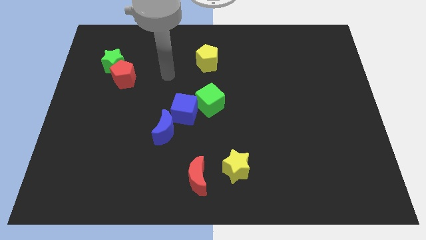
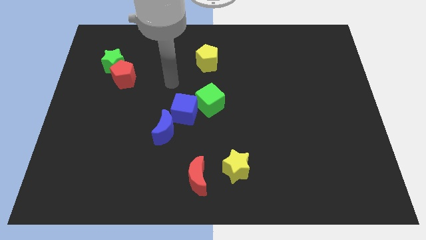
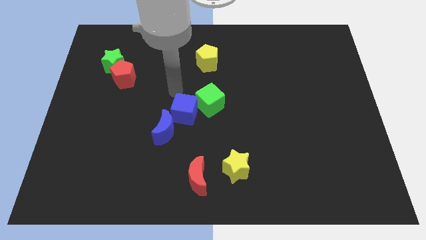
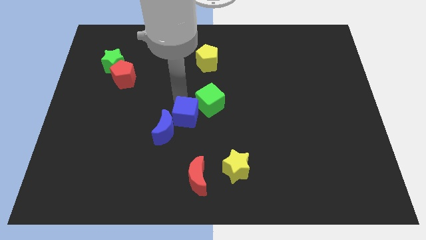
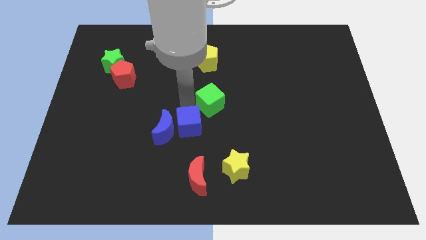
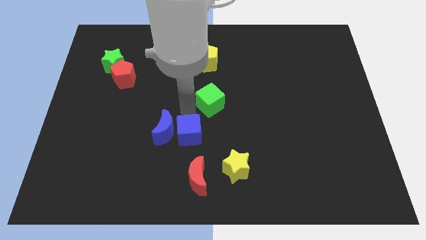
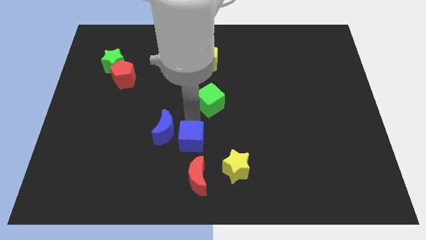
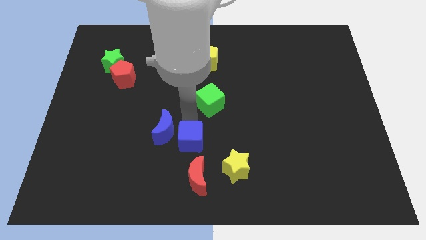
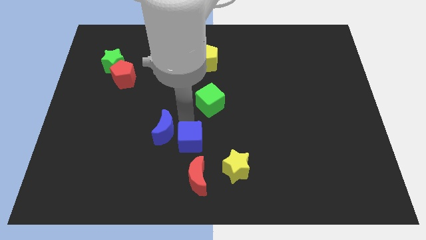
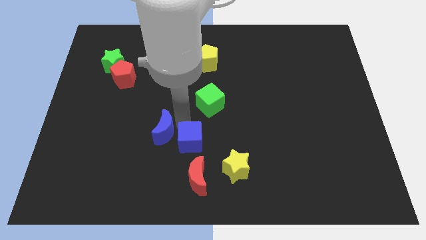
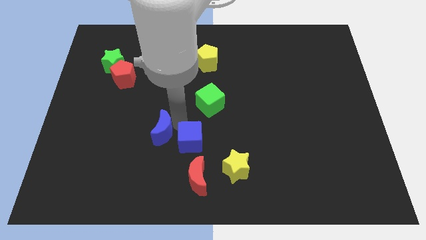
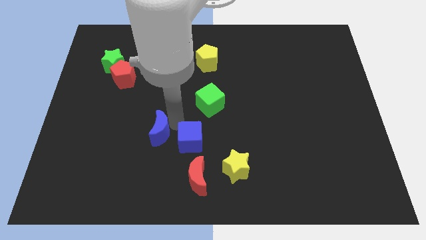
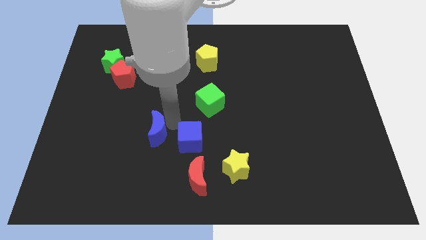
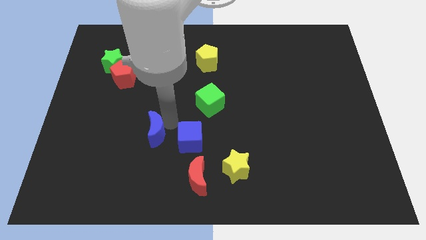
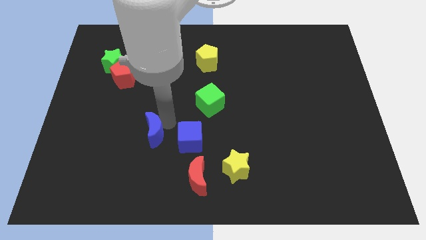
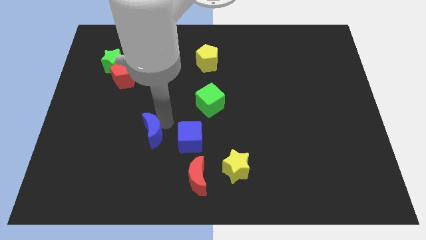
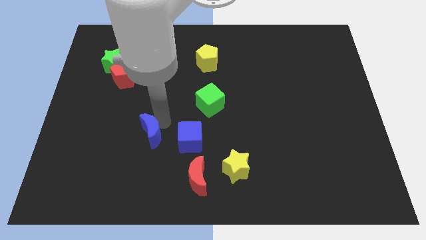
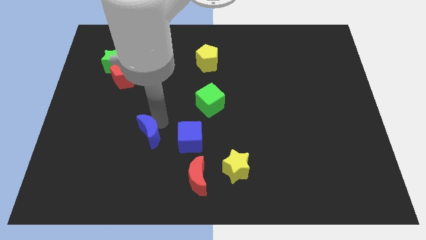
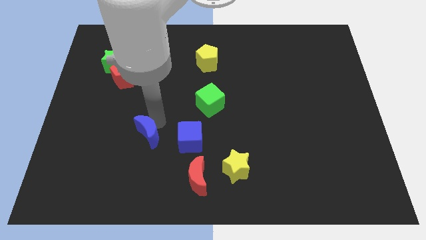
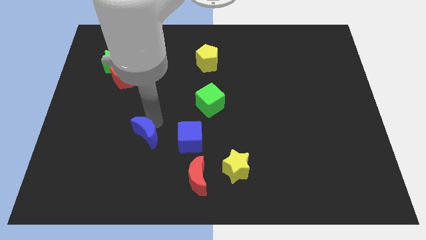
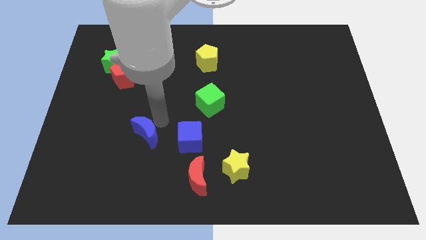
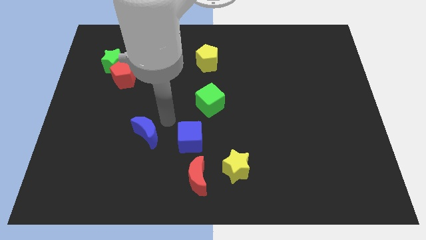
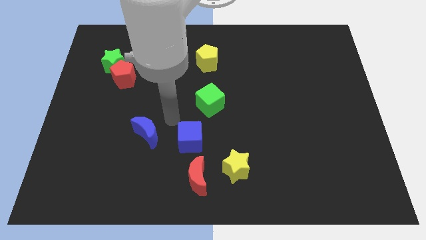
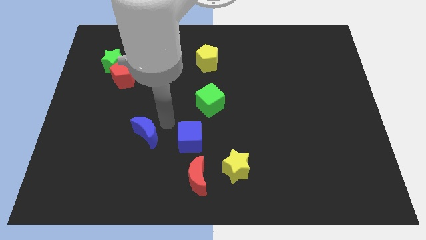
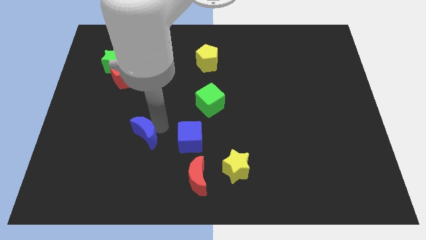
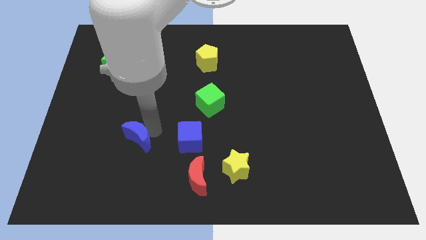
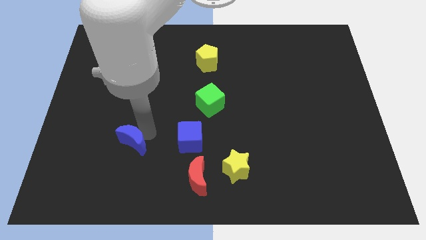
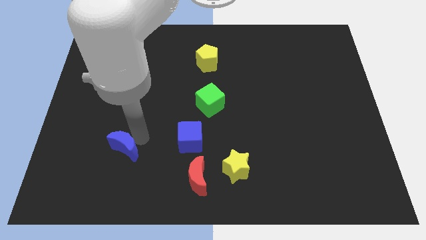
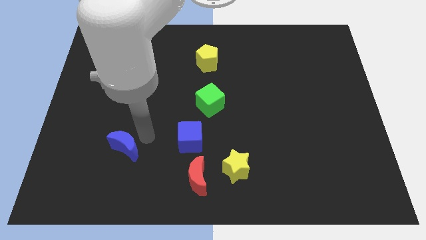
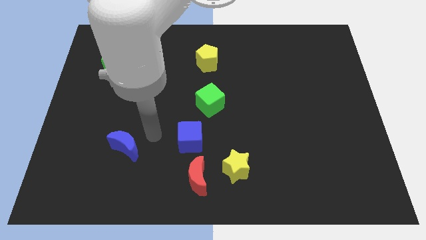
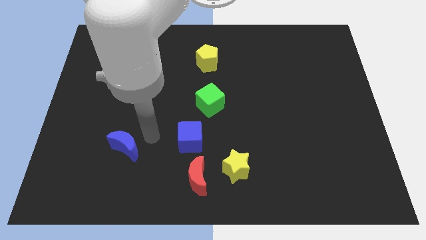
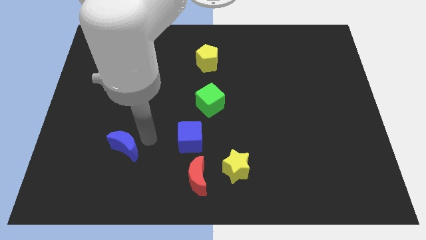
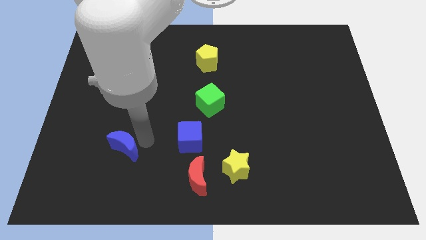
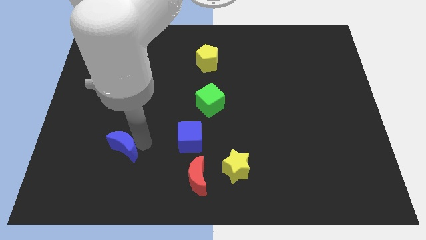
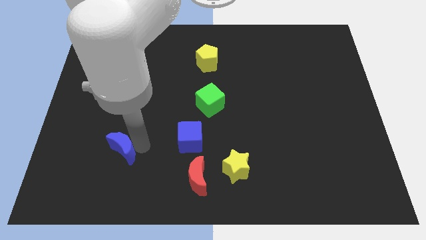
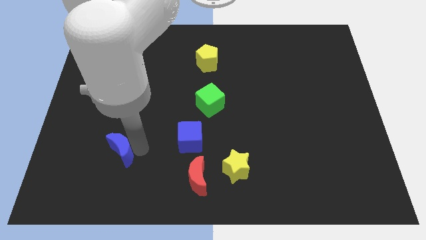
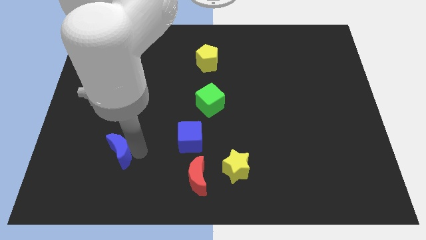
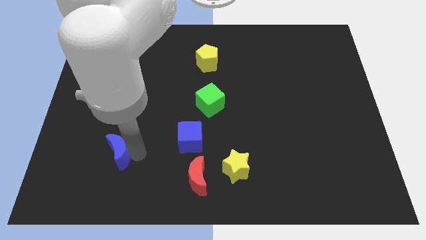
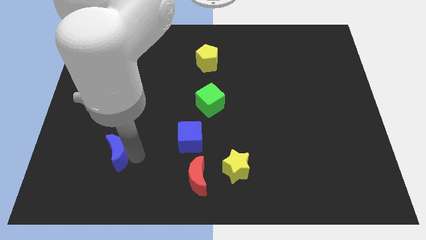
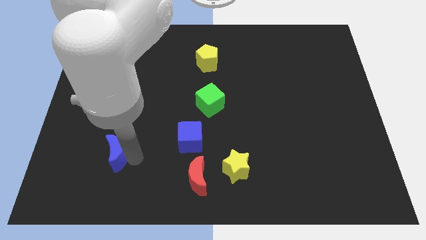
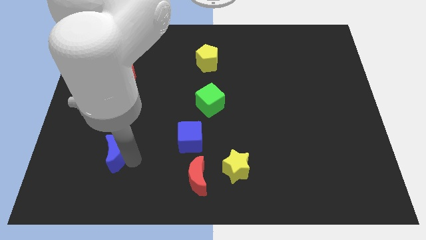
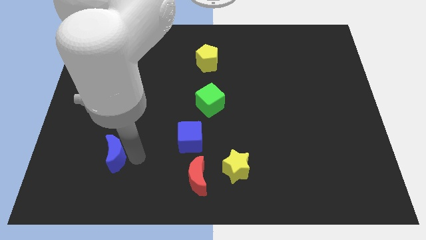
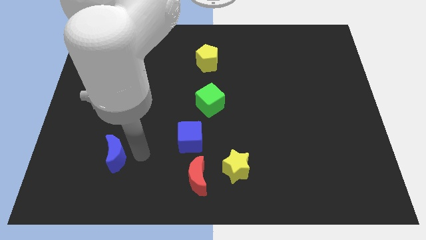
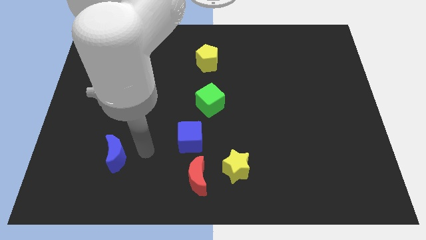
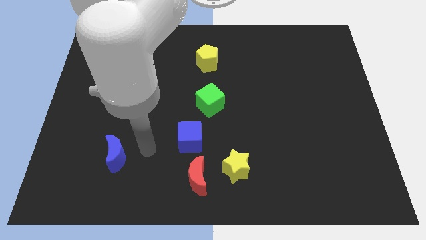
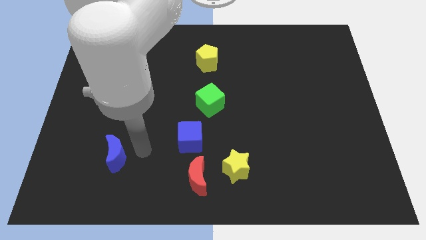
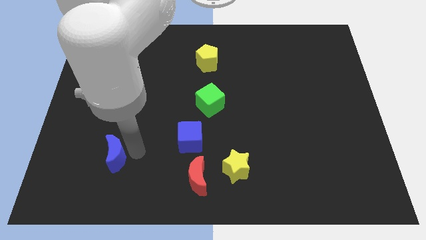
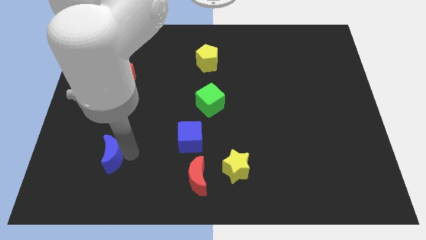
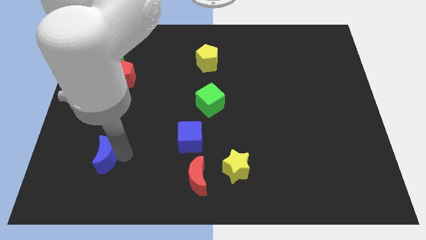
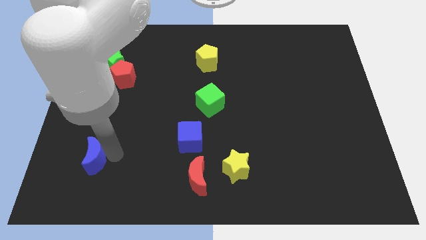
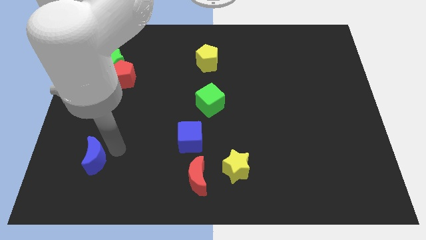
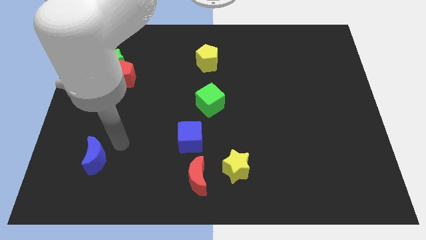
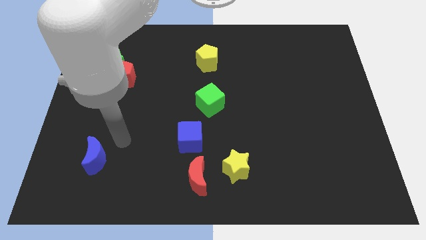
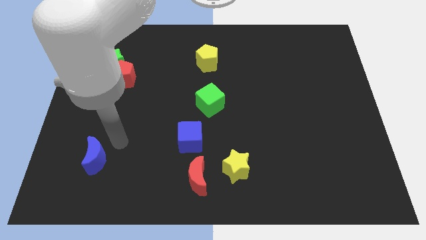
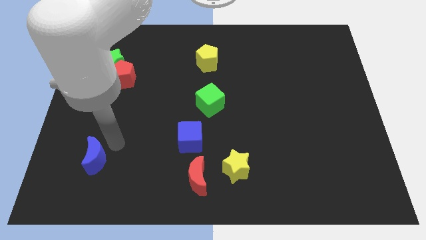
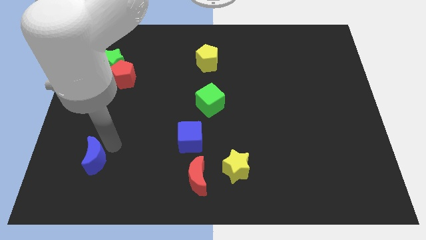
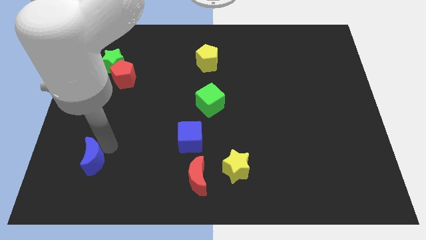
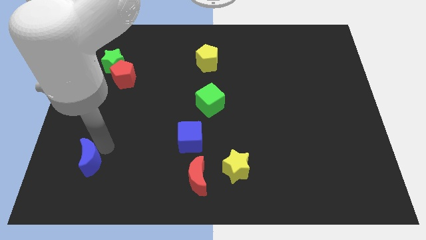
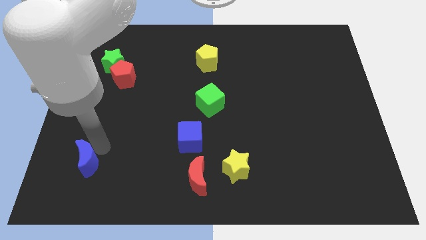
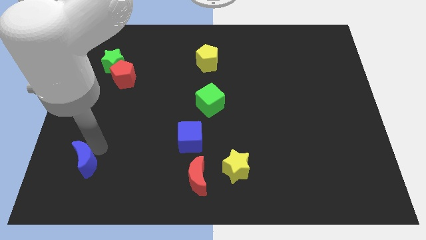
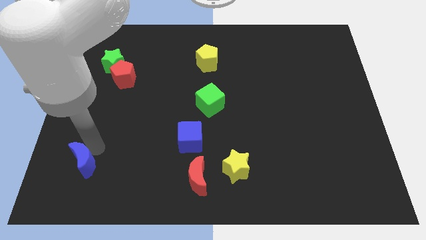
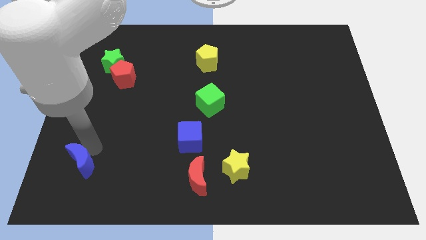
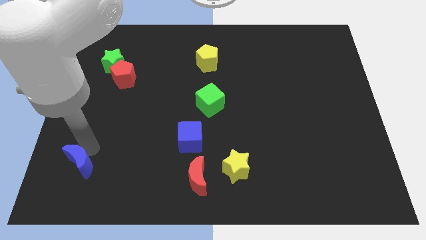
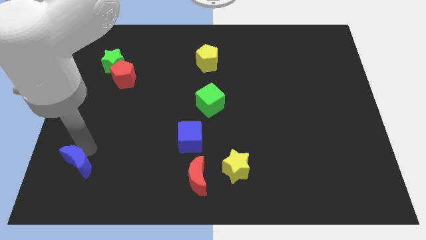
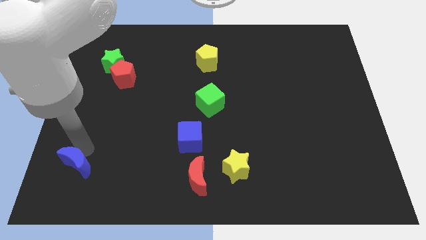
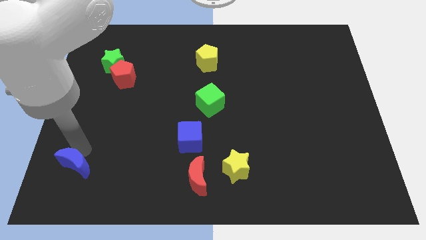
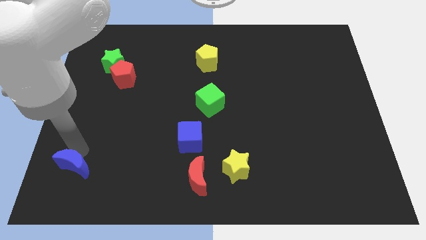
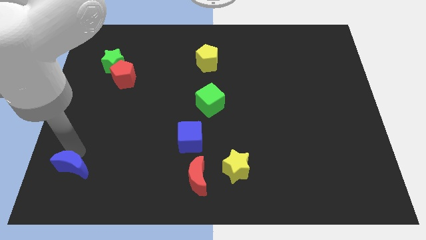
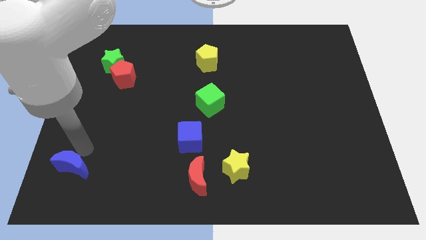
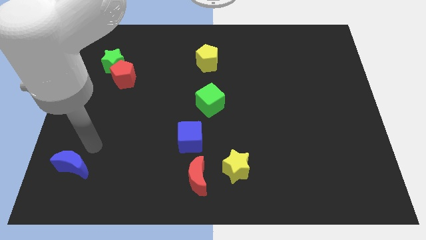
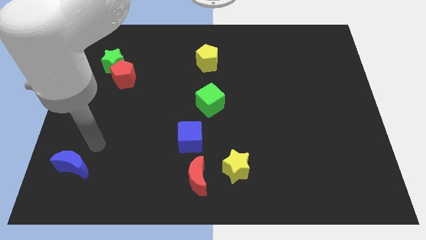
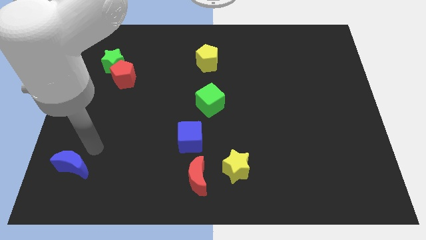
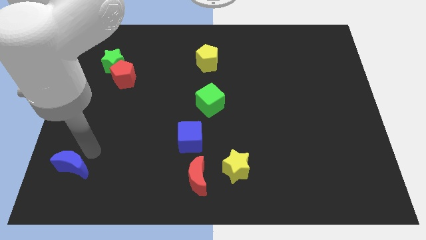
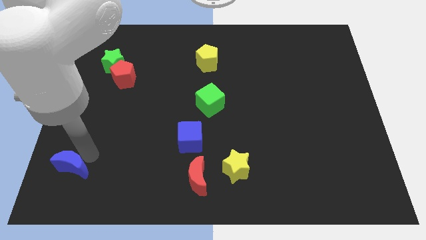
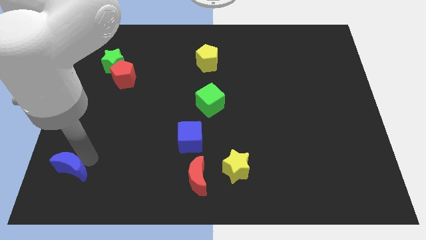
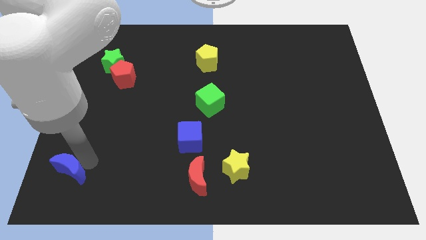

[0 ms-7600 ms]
put the blue moon to the lower left corner
